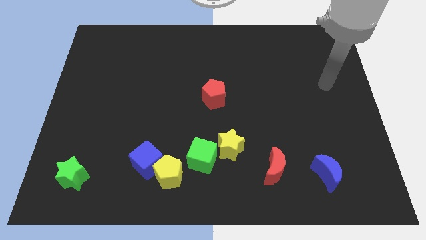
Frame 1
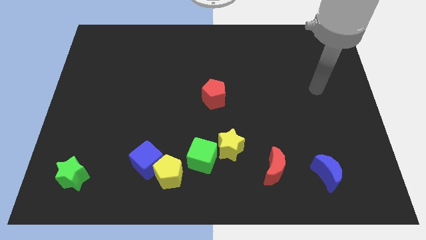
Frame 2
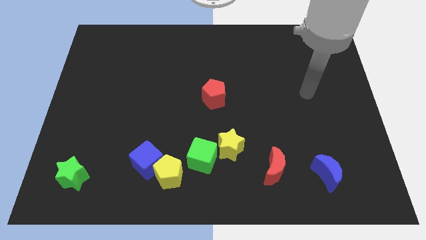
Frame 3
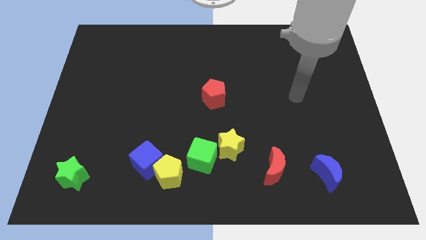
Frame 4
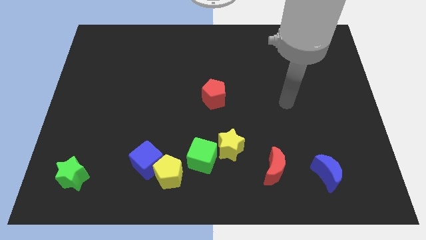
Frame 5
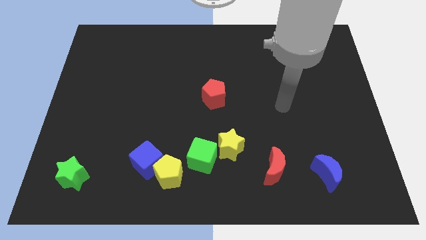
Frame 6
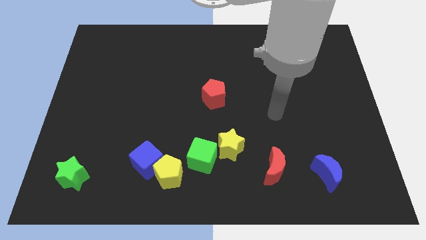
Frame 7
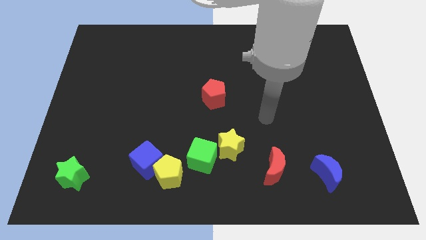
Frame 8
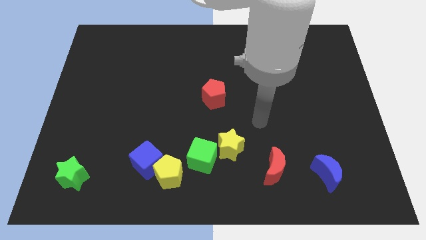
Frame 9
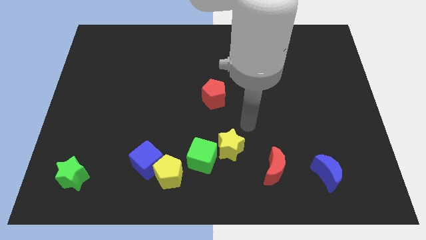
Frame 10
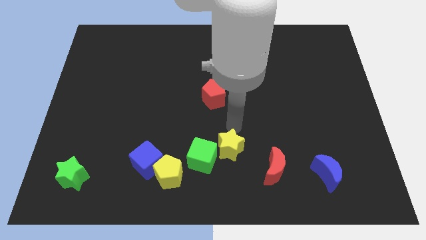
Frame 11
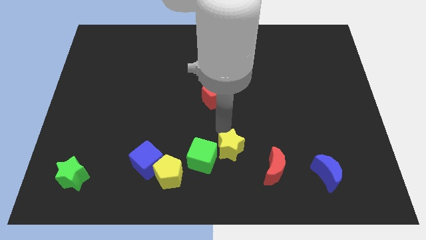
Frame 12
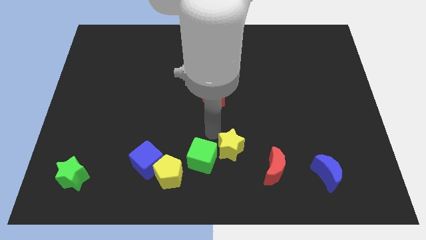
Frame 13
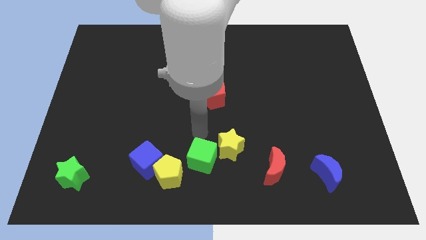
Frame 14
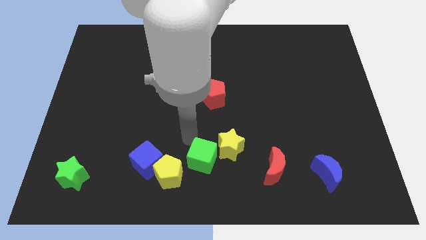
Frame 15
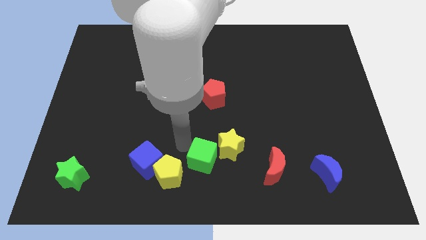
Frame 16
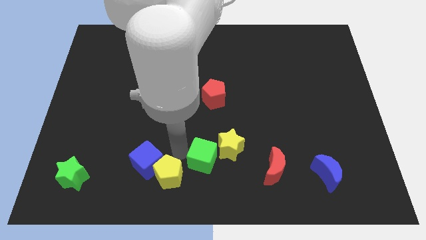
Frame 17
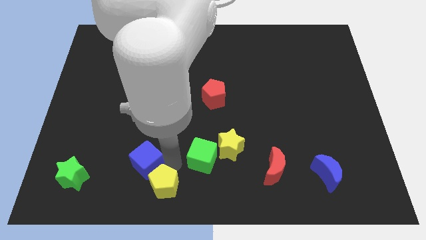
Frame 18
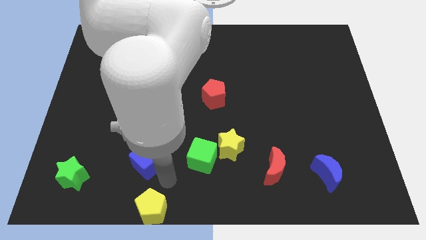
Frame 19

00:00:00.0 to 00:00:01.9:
pull the blue cube apart from the yellow pentagon

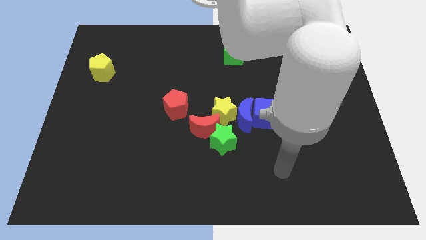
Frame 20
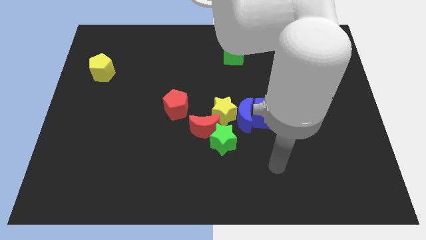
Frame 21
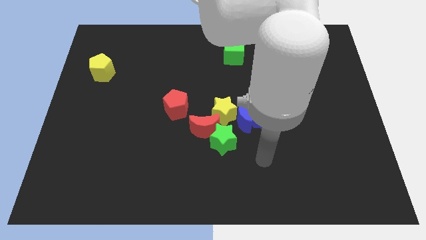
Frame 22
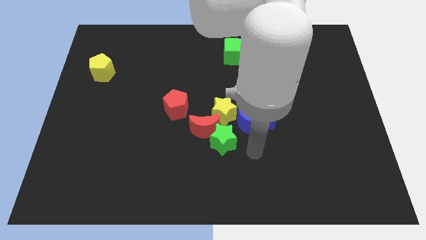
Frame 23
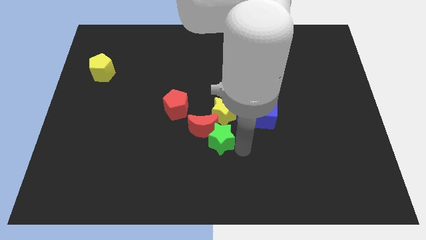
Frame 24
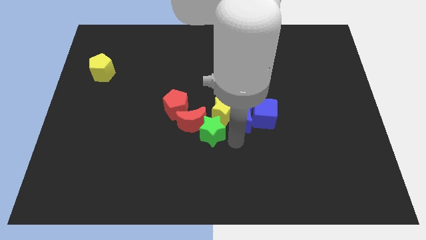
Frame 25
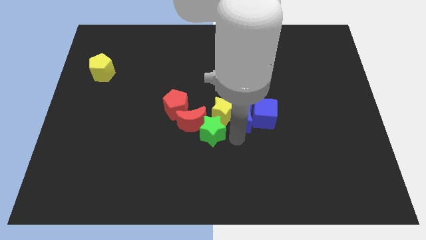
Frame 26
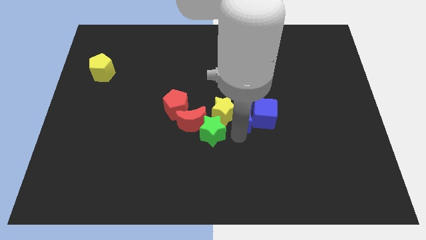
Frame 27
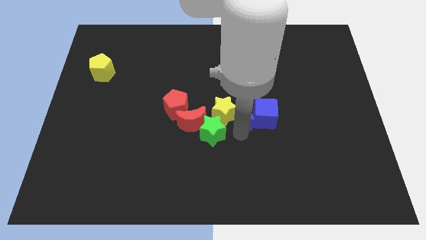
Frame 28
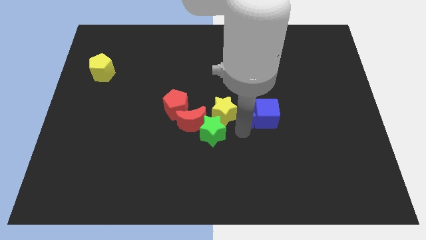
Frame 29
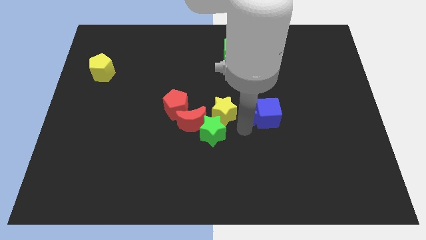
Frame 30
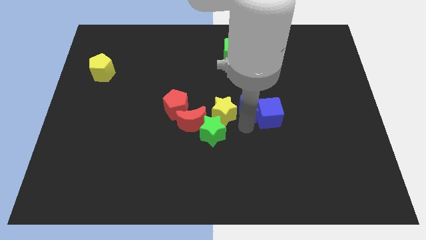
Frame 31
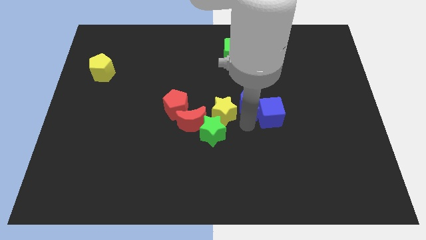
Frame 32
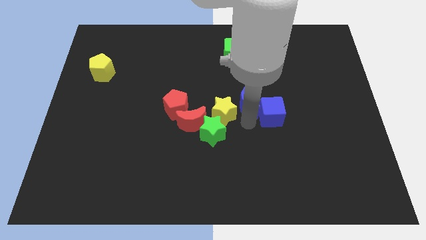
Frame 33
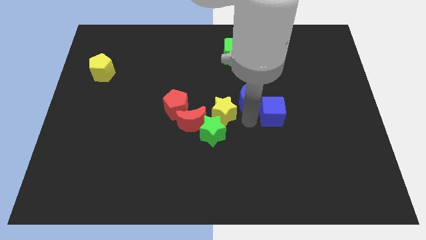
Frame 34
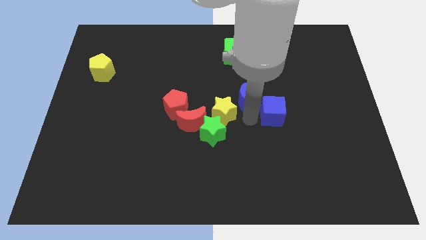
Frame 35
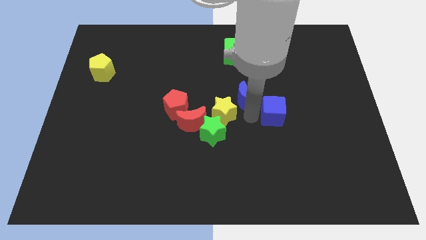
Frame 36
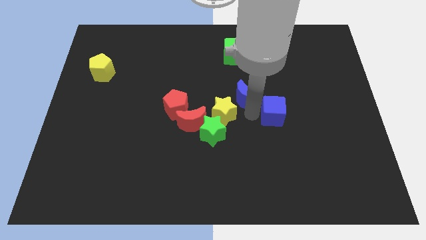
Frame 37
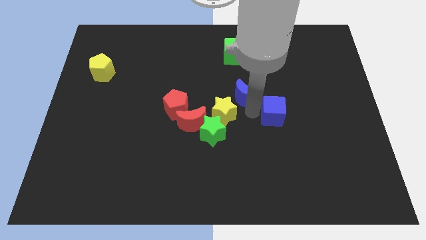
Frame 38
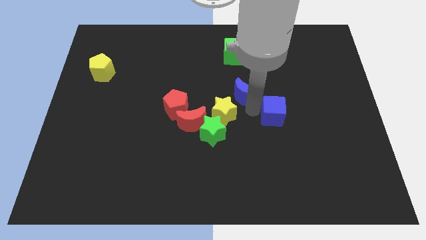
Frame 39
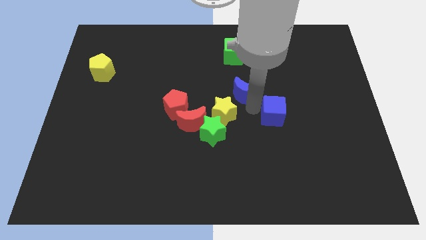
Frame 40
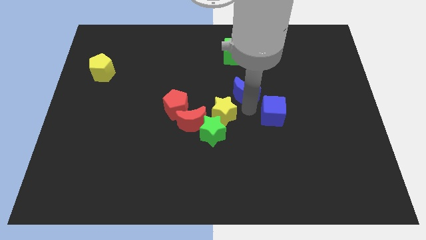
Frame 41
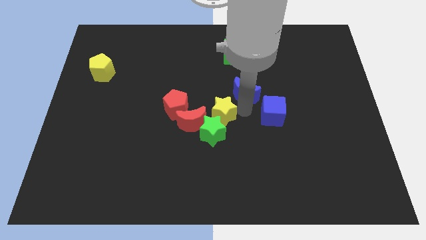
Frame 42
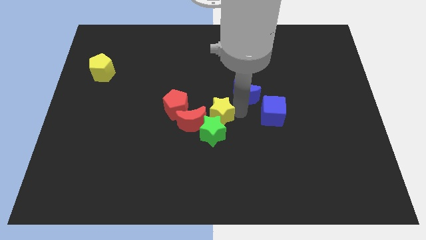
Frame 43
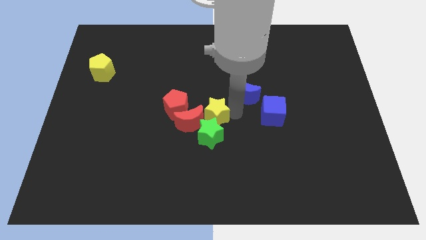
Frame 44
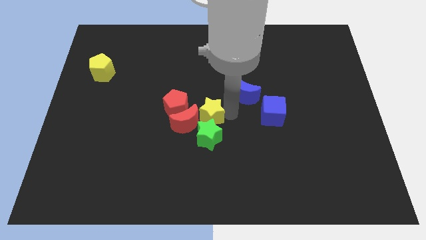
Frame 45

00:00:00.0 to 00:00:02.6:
move the blue moon away from the clump

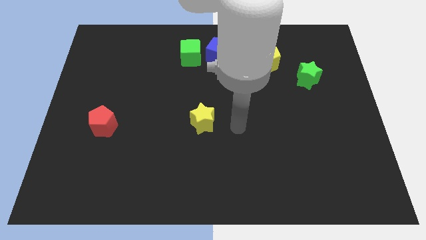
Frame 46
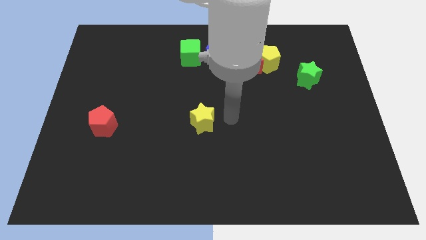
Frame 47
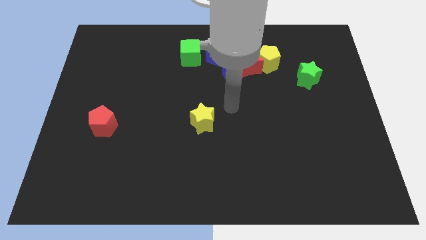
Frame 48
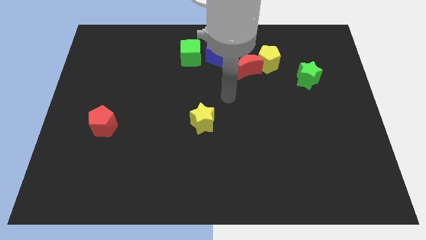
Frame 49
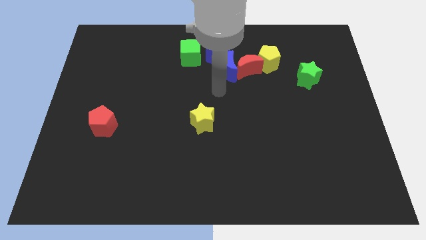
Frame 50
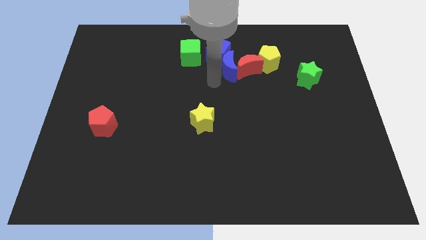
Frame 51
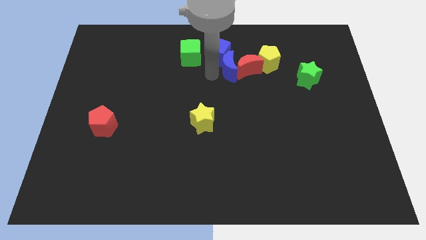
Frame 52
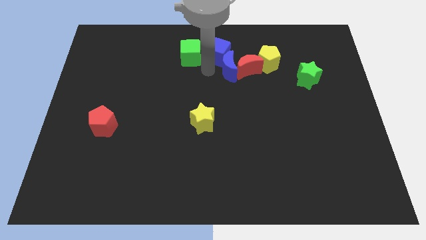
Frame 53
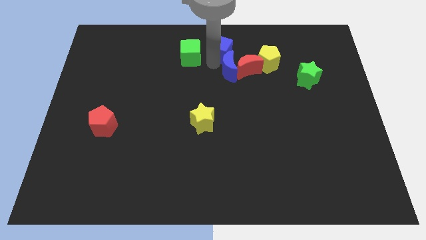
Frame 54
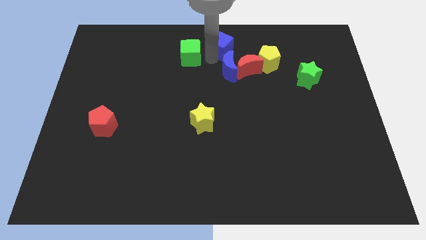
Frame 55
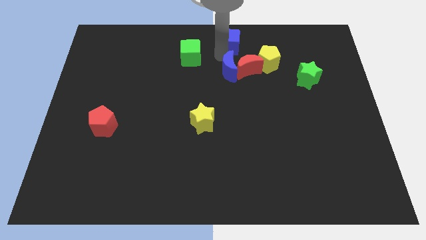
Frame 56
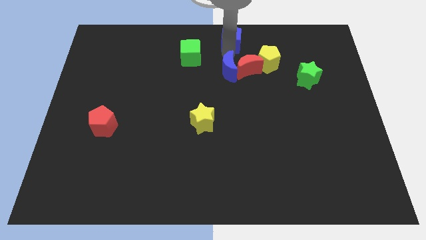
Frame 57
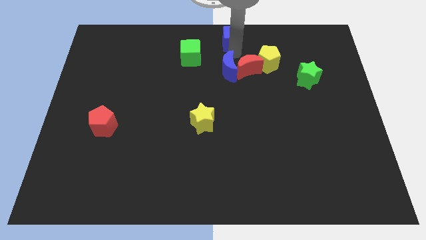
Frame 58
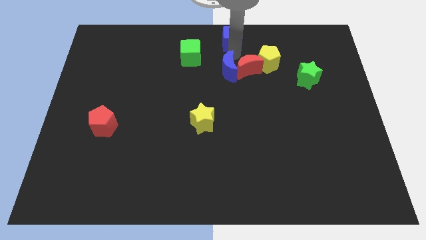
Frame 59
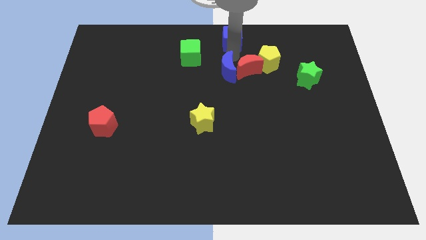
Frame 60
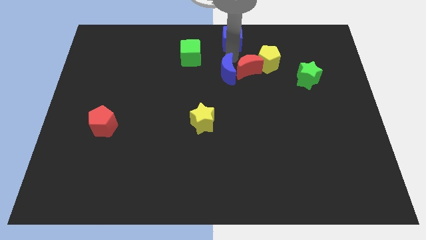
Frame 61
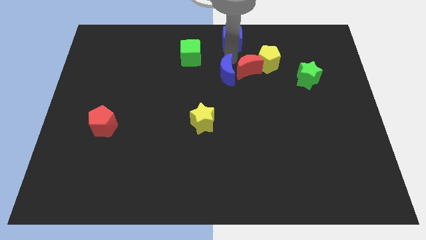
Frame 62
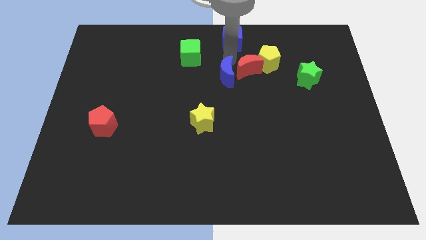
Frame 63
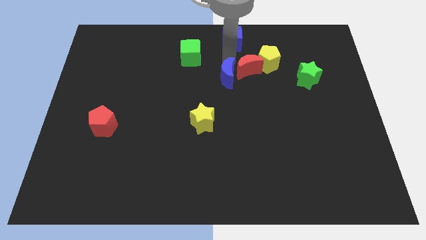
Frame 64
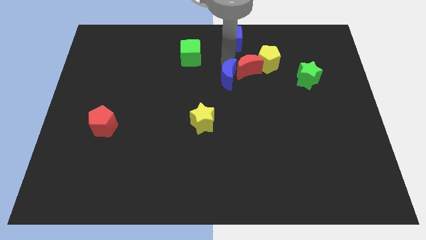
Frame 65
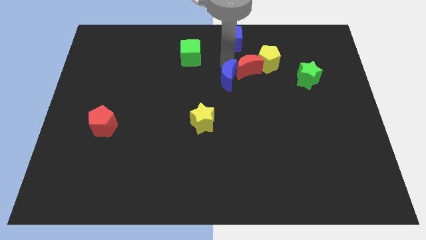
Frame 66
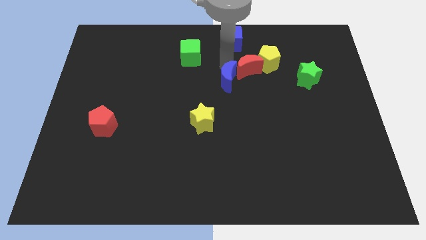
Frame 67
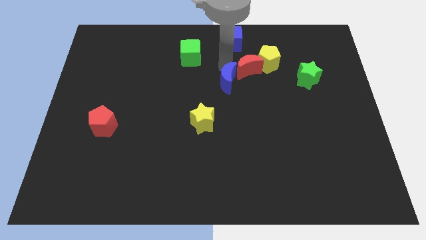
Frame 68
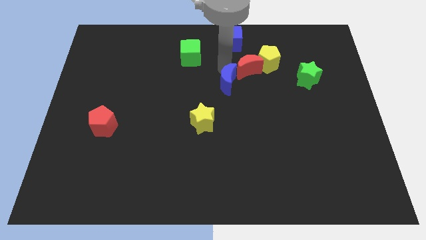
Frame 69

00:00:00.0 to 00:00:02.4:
separate the blue moon from the red moon and blue cube

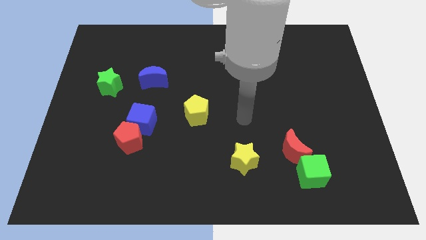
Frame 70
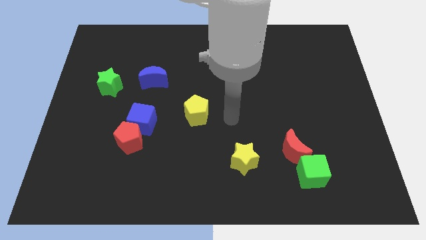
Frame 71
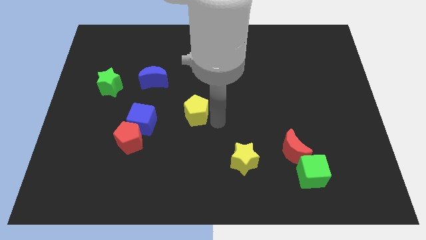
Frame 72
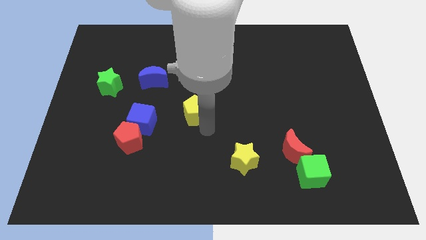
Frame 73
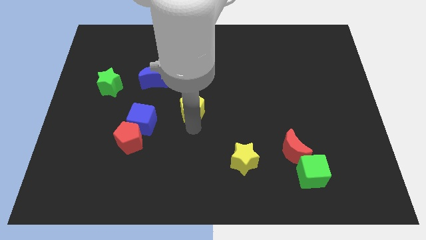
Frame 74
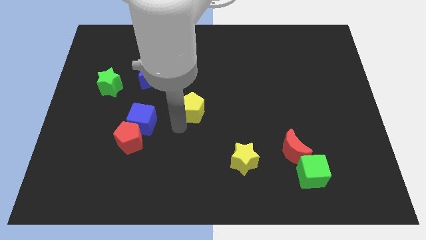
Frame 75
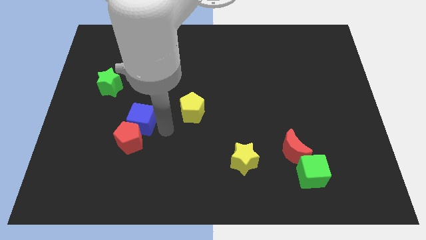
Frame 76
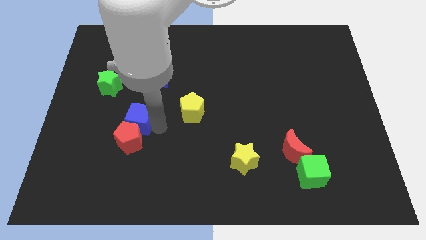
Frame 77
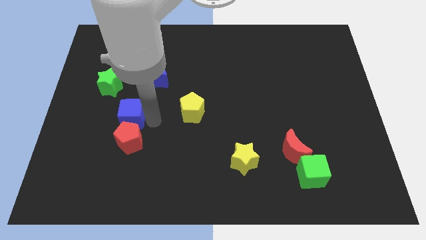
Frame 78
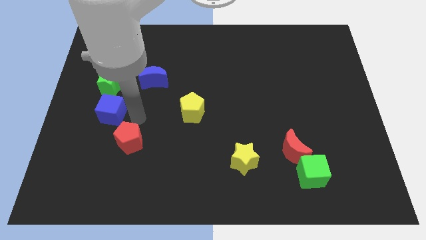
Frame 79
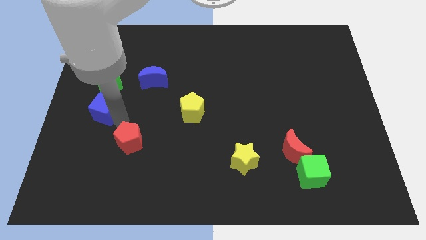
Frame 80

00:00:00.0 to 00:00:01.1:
separate the red pentagon from the blue cube

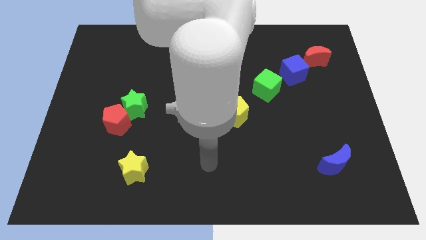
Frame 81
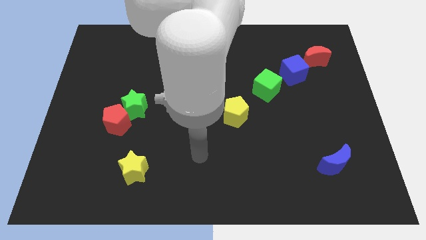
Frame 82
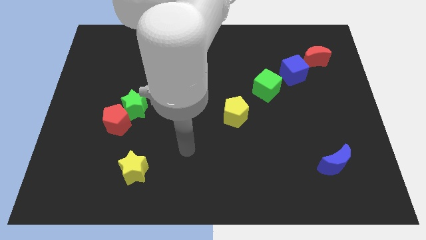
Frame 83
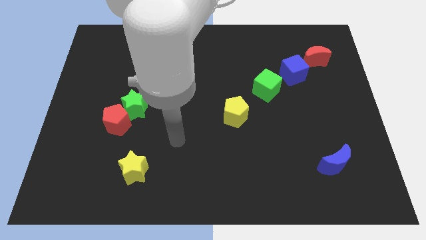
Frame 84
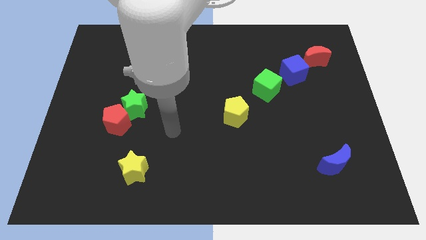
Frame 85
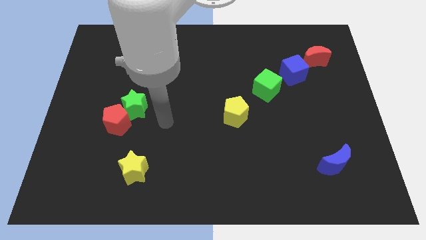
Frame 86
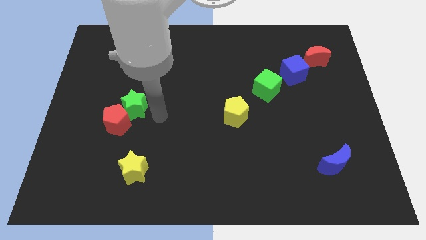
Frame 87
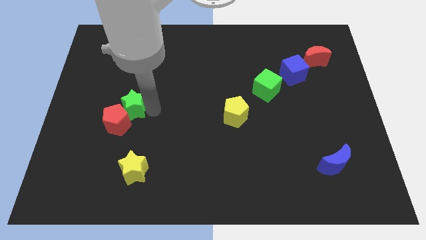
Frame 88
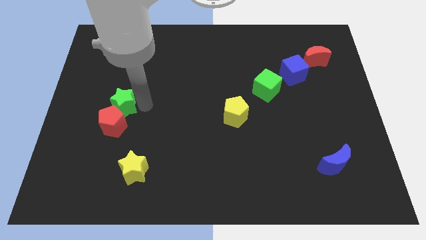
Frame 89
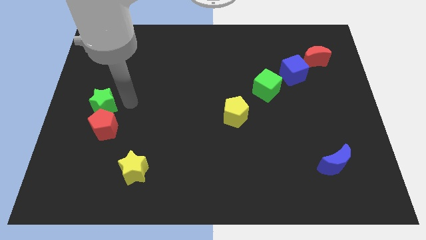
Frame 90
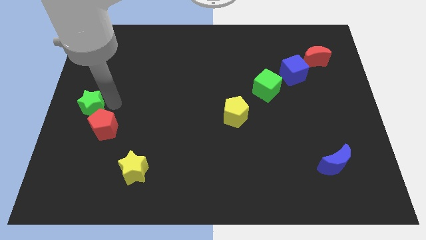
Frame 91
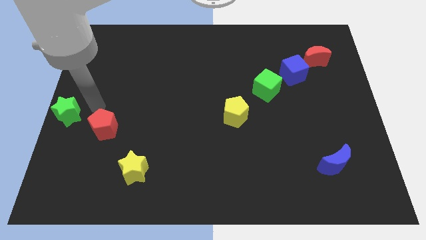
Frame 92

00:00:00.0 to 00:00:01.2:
separate the red pentagon from the green star
